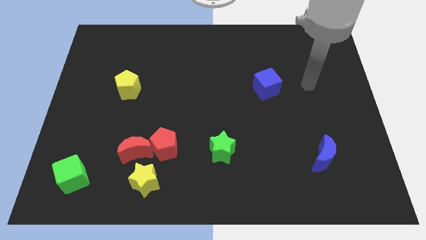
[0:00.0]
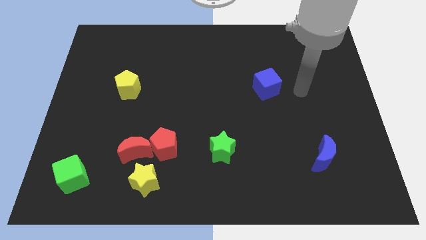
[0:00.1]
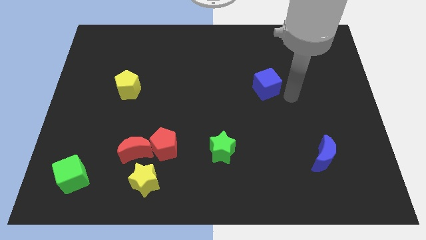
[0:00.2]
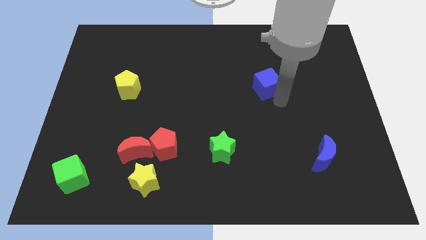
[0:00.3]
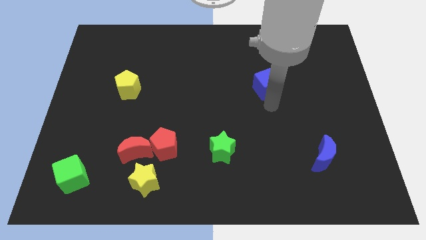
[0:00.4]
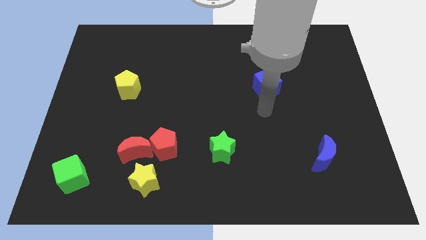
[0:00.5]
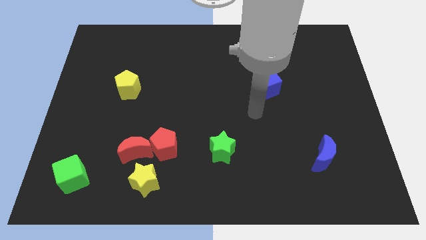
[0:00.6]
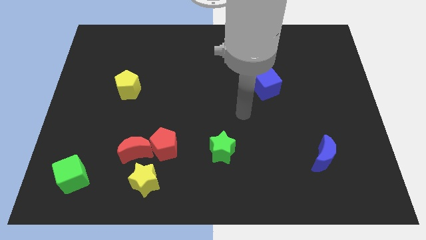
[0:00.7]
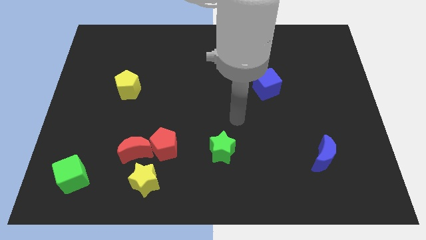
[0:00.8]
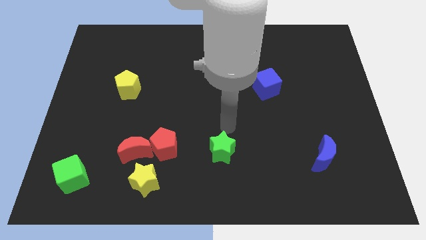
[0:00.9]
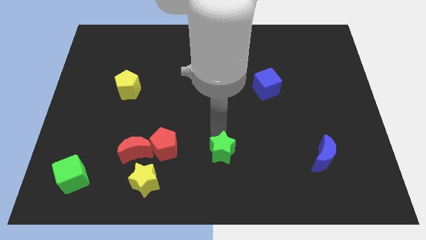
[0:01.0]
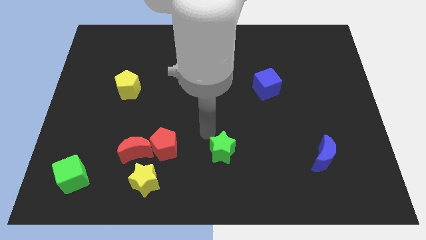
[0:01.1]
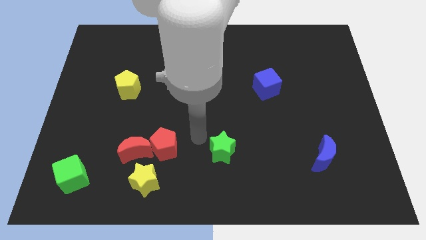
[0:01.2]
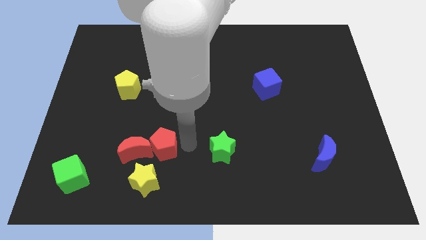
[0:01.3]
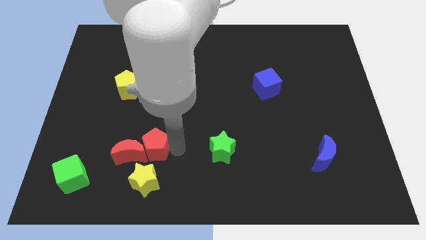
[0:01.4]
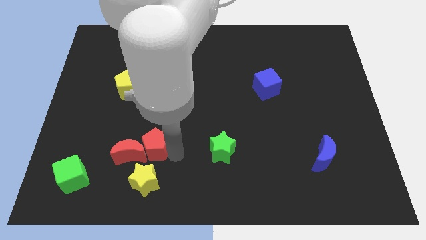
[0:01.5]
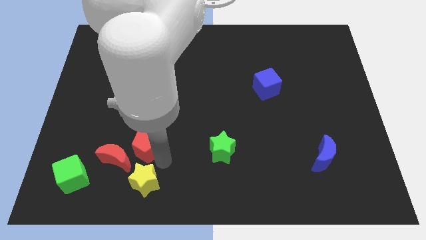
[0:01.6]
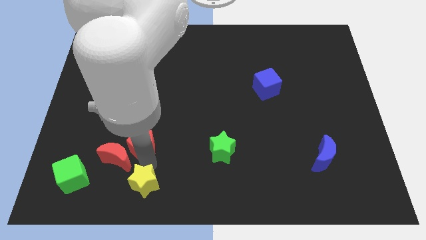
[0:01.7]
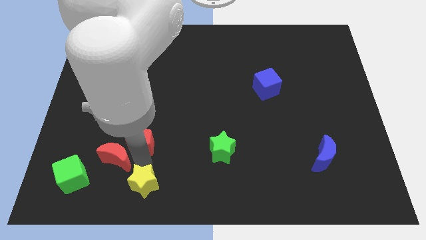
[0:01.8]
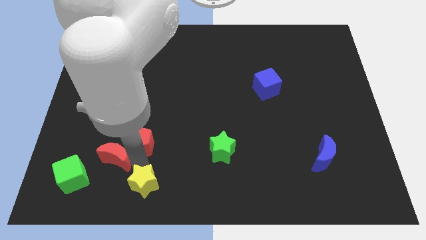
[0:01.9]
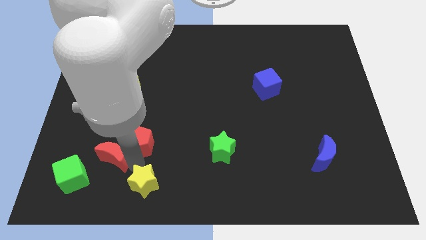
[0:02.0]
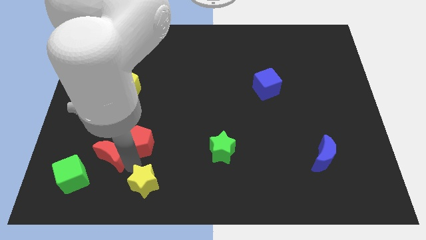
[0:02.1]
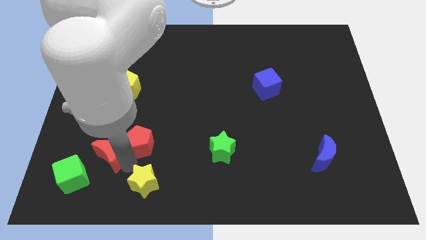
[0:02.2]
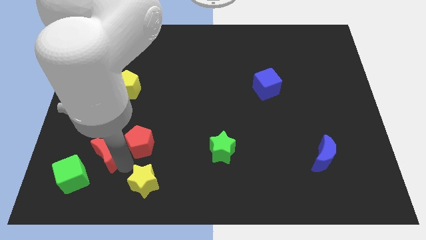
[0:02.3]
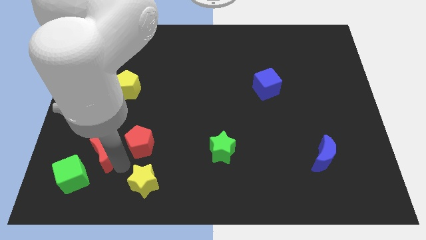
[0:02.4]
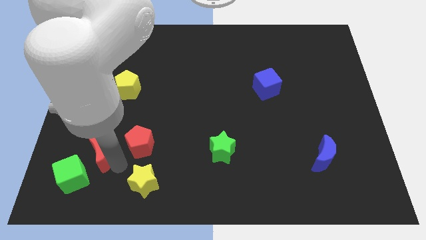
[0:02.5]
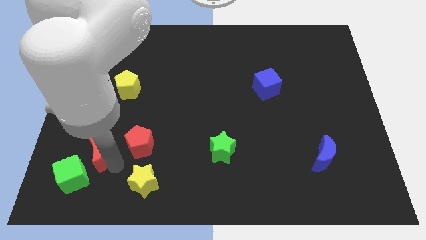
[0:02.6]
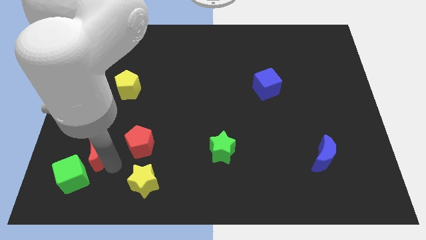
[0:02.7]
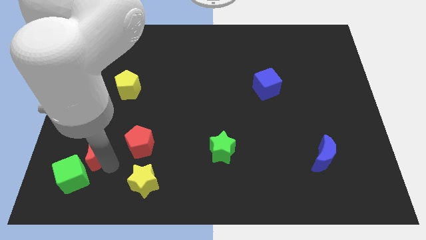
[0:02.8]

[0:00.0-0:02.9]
move the red moon away from the red pentagon and yellow star

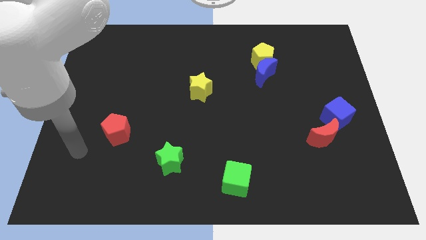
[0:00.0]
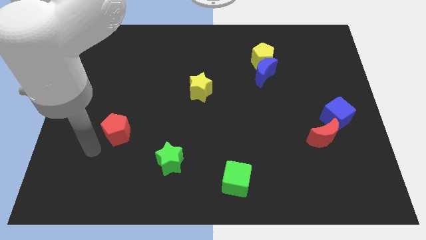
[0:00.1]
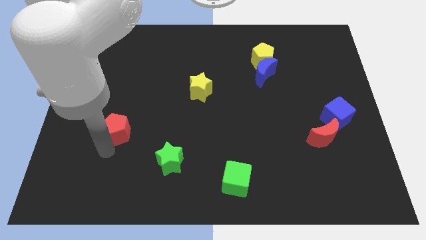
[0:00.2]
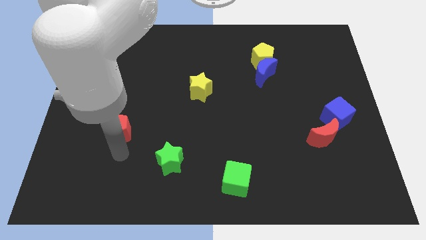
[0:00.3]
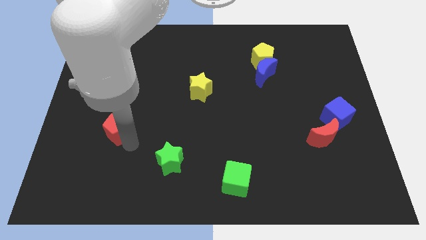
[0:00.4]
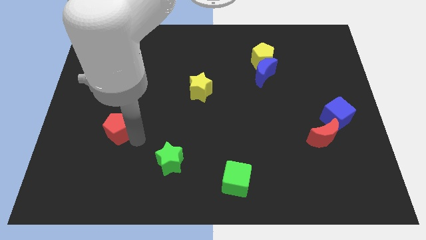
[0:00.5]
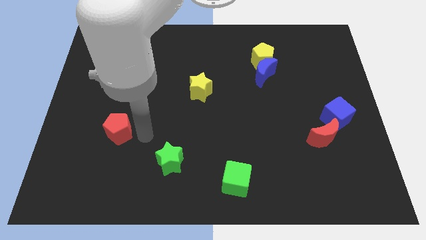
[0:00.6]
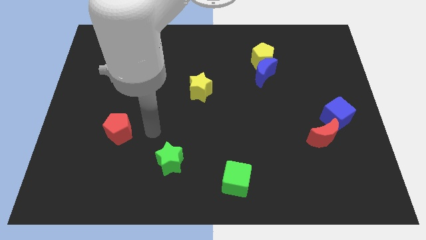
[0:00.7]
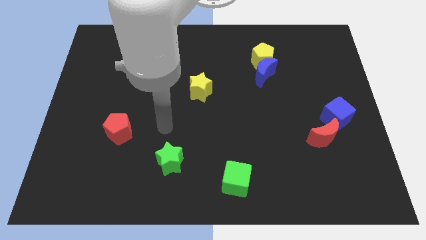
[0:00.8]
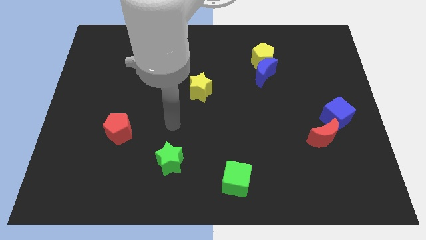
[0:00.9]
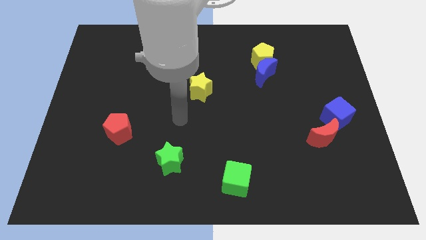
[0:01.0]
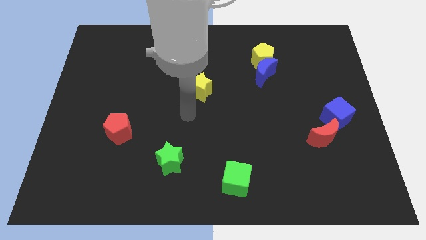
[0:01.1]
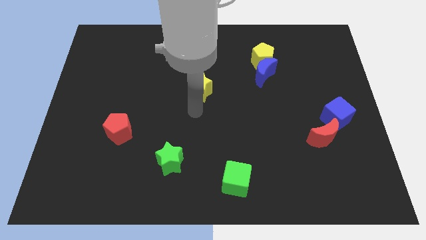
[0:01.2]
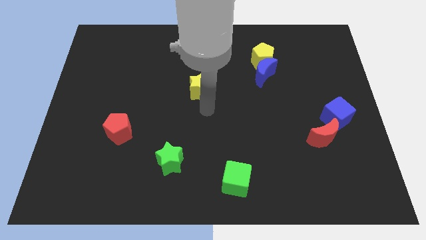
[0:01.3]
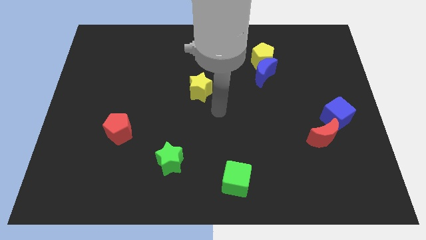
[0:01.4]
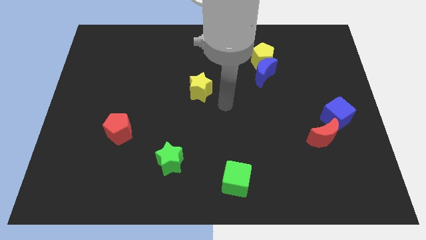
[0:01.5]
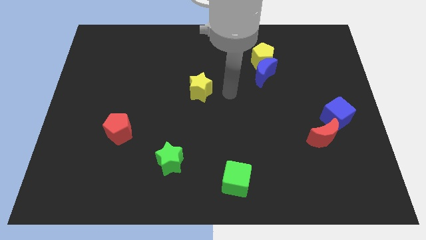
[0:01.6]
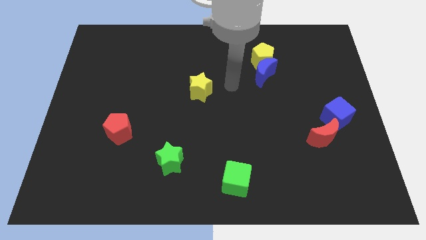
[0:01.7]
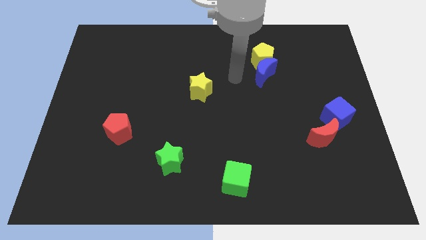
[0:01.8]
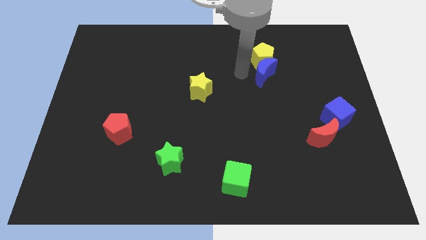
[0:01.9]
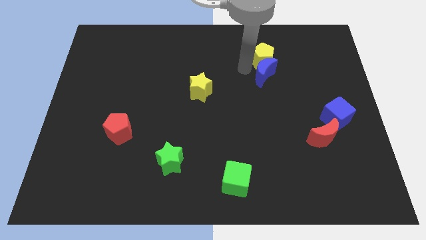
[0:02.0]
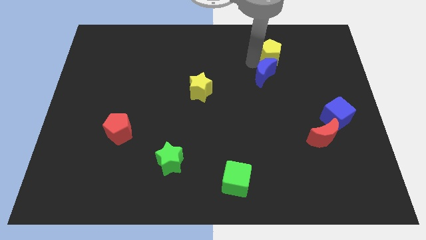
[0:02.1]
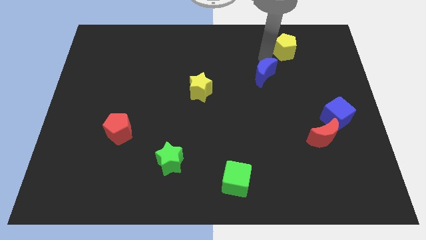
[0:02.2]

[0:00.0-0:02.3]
move the blue moon away from the yellow pentagon

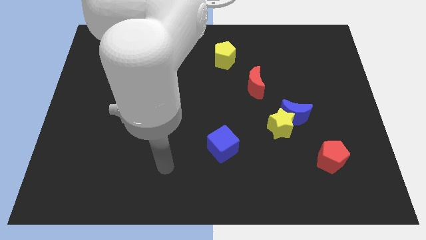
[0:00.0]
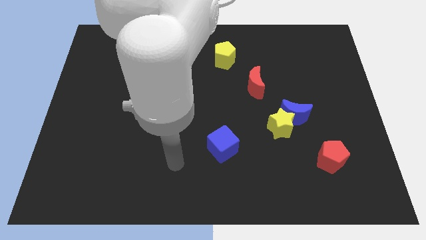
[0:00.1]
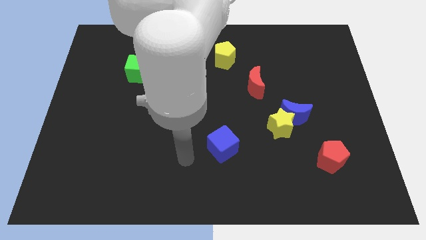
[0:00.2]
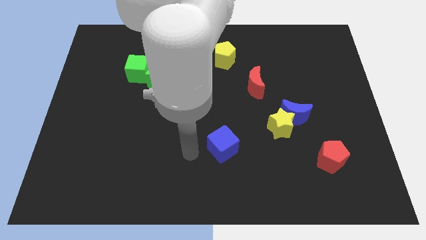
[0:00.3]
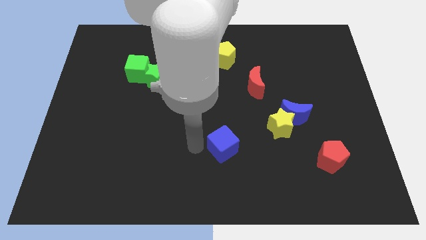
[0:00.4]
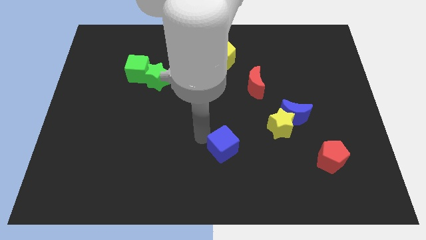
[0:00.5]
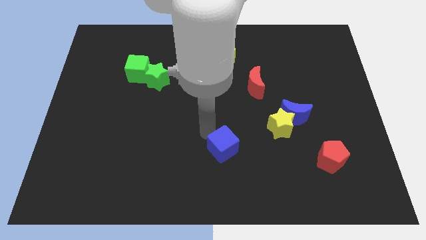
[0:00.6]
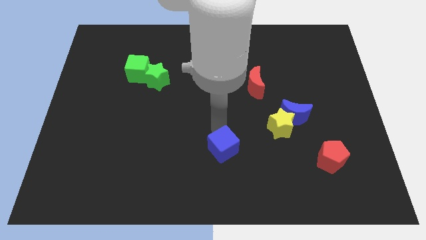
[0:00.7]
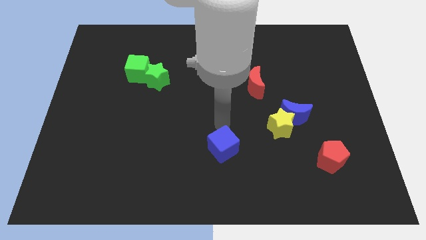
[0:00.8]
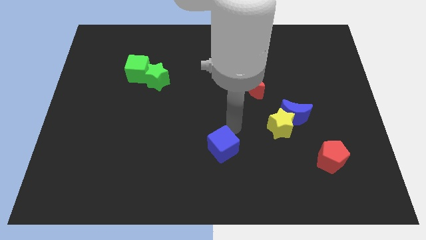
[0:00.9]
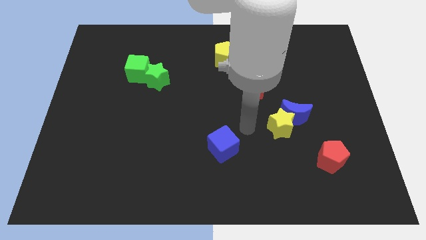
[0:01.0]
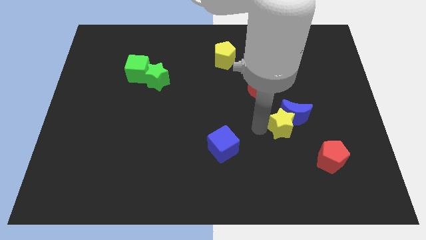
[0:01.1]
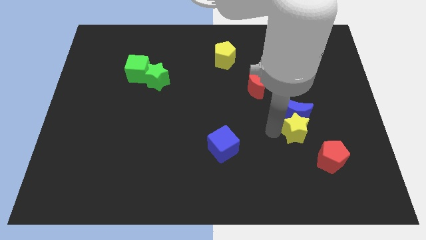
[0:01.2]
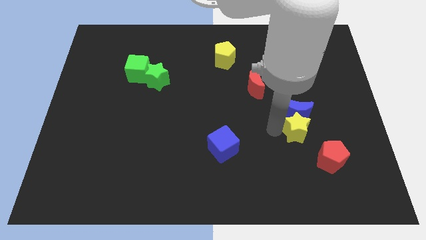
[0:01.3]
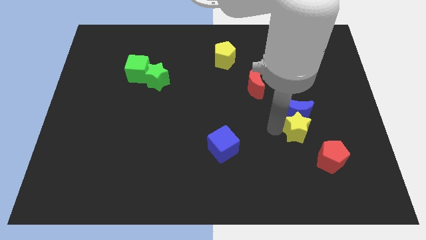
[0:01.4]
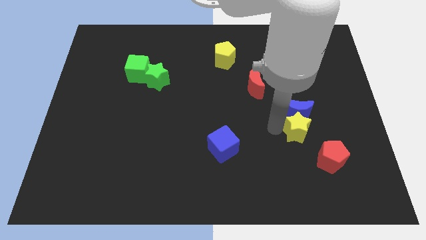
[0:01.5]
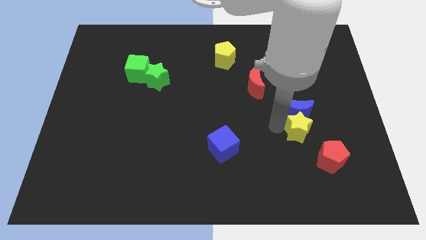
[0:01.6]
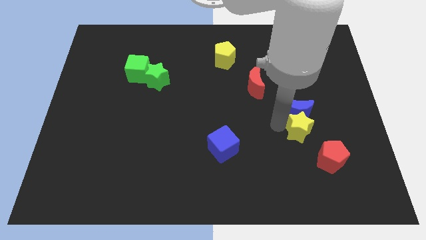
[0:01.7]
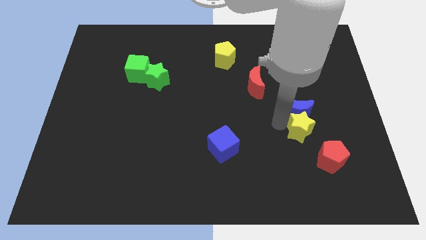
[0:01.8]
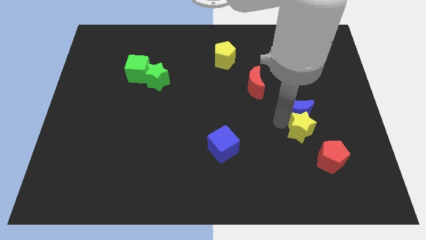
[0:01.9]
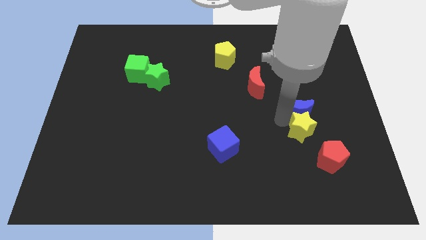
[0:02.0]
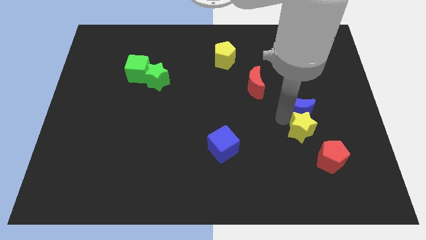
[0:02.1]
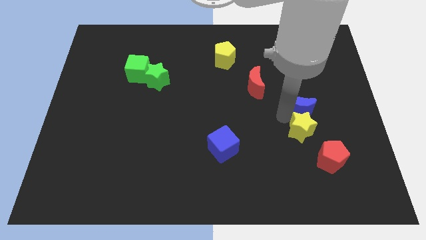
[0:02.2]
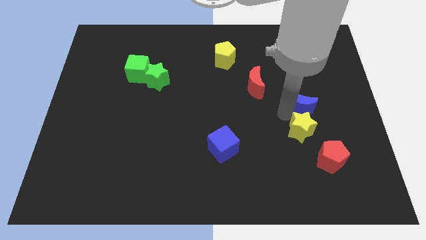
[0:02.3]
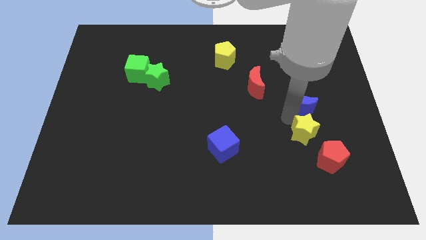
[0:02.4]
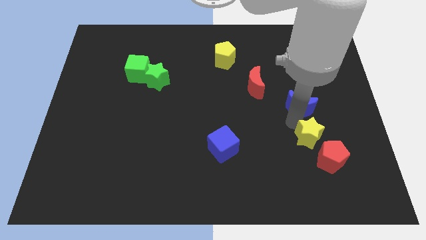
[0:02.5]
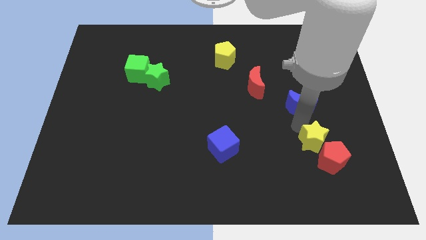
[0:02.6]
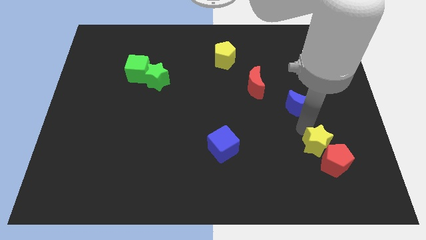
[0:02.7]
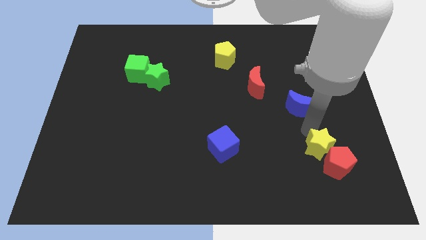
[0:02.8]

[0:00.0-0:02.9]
separate the blue moon from the yellow star

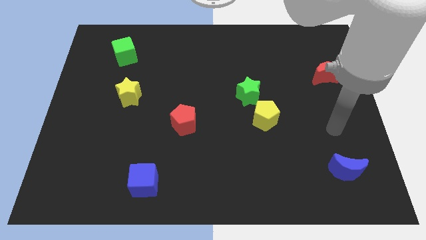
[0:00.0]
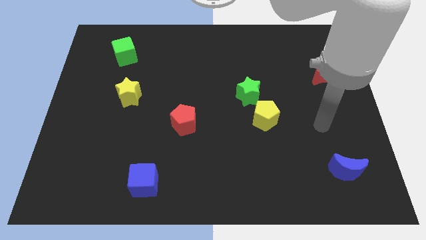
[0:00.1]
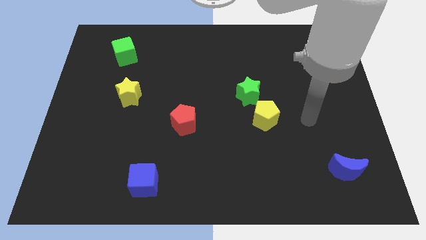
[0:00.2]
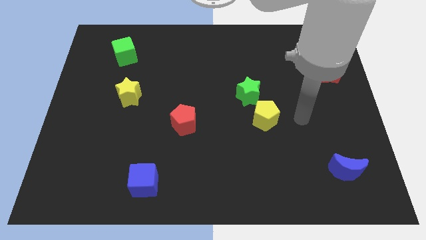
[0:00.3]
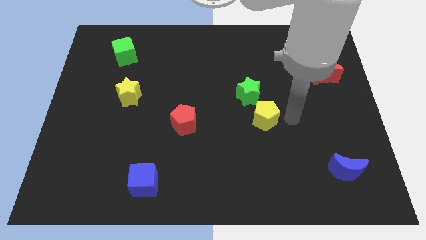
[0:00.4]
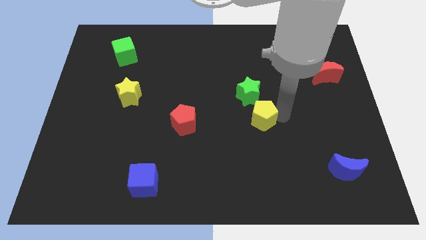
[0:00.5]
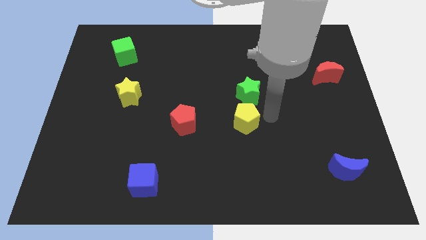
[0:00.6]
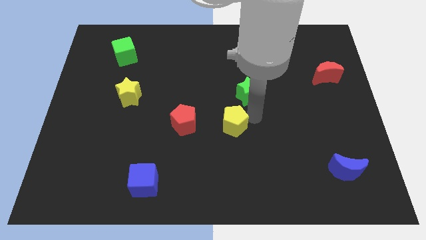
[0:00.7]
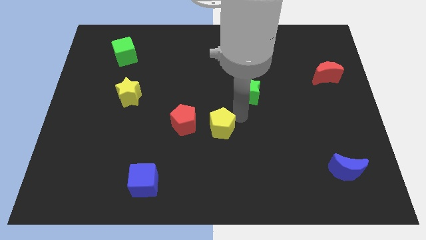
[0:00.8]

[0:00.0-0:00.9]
pull the green star apart from the yellow pentagon

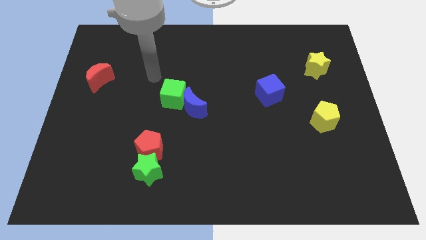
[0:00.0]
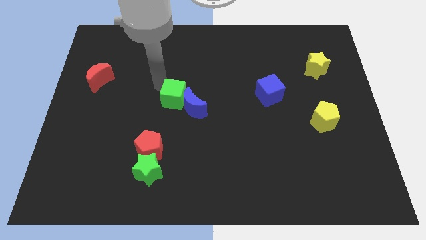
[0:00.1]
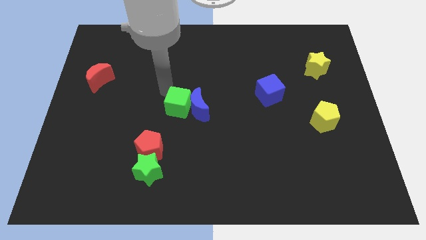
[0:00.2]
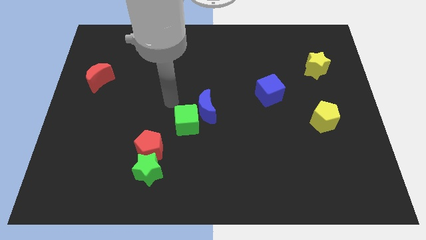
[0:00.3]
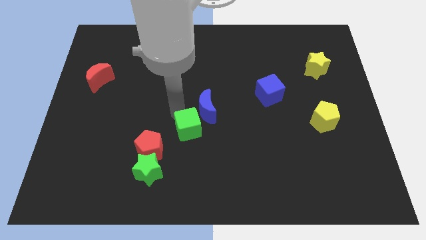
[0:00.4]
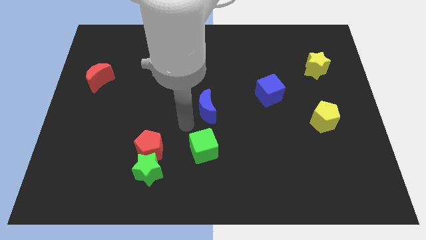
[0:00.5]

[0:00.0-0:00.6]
pull the blue moon apart from the green cube
